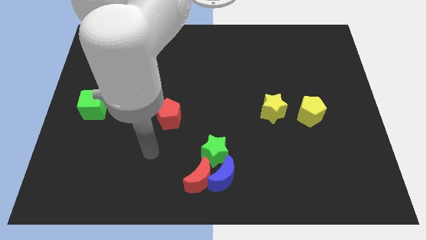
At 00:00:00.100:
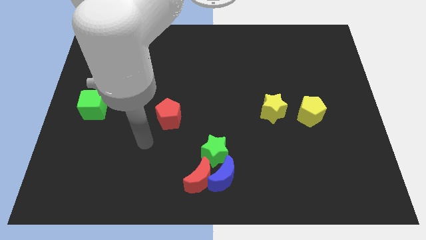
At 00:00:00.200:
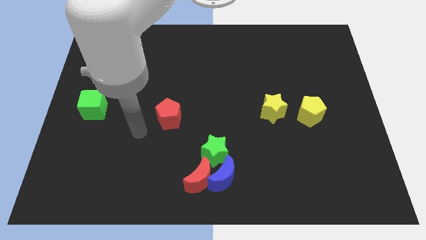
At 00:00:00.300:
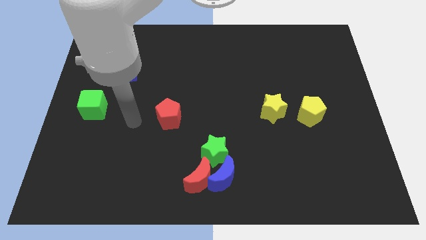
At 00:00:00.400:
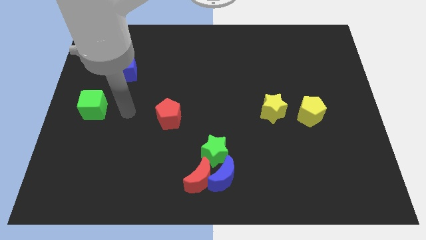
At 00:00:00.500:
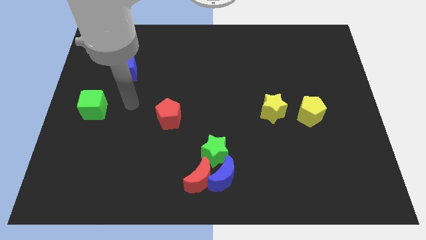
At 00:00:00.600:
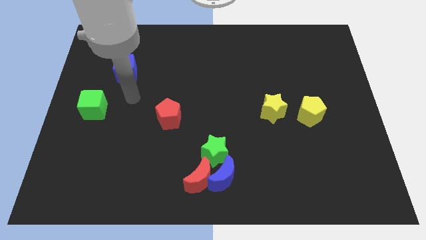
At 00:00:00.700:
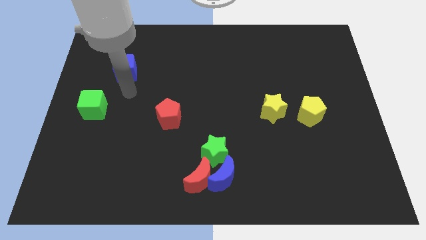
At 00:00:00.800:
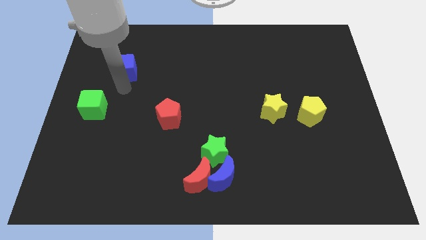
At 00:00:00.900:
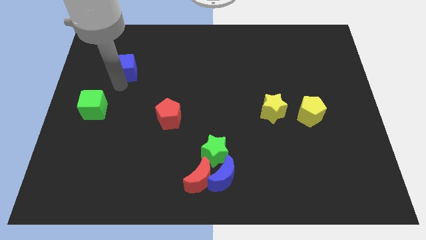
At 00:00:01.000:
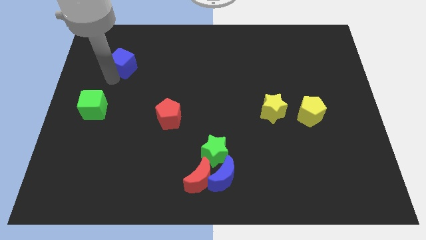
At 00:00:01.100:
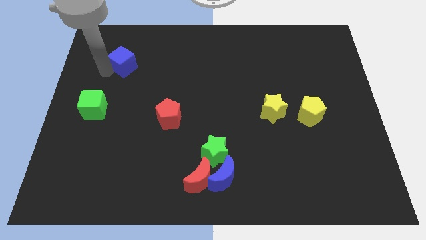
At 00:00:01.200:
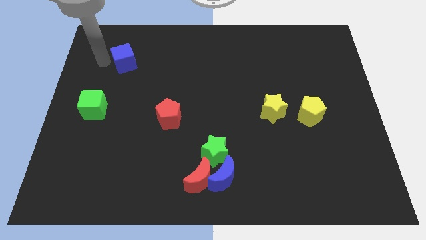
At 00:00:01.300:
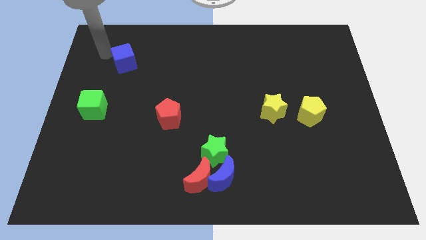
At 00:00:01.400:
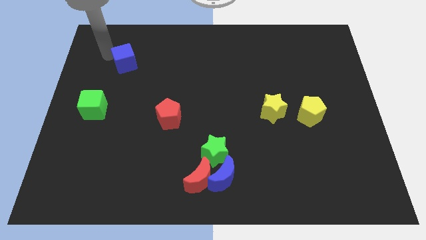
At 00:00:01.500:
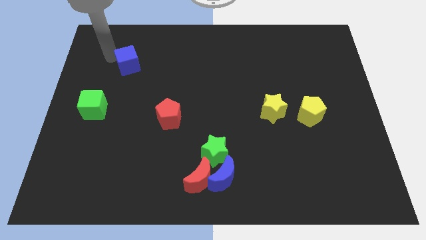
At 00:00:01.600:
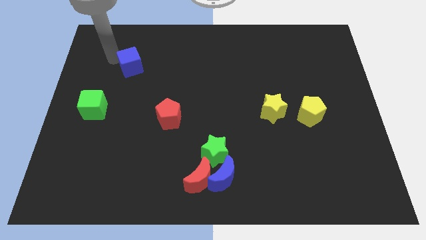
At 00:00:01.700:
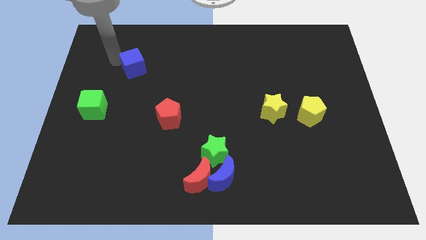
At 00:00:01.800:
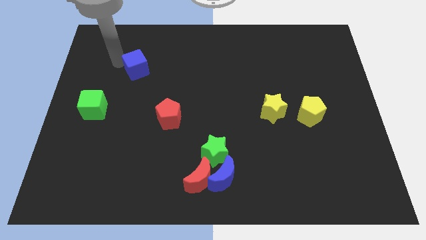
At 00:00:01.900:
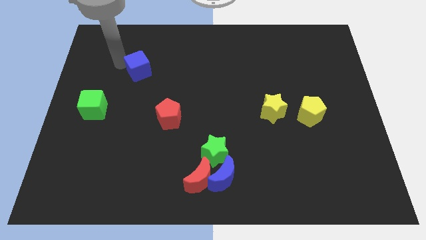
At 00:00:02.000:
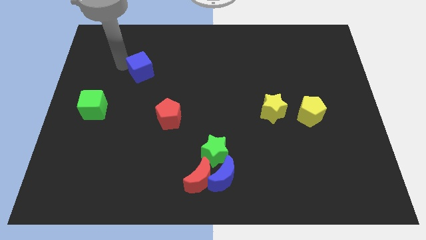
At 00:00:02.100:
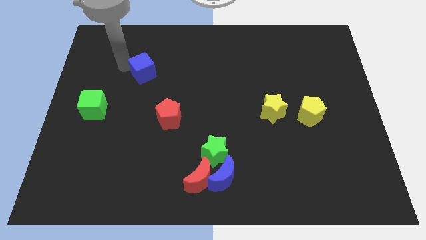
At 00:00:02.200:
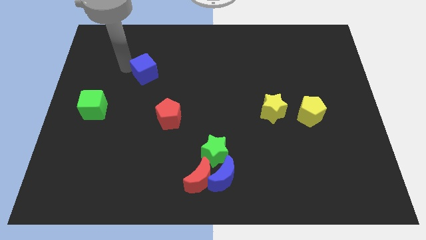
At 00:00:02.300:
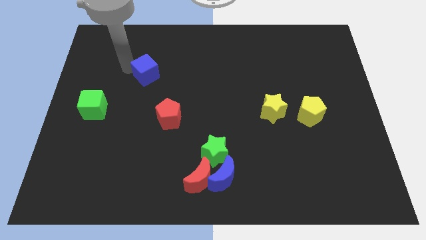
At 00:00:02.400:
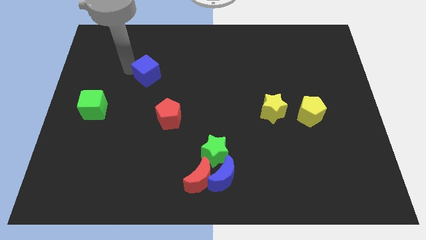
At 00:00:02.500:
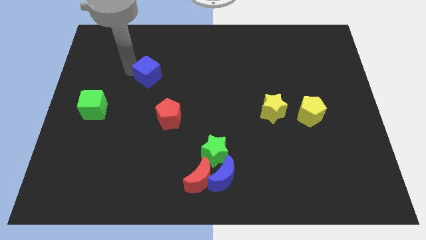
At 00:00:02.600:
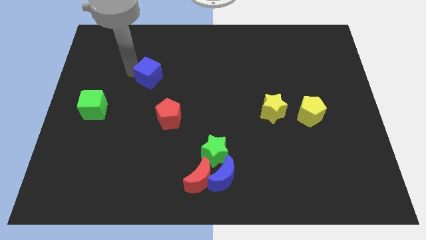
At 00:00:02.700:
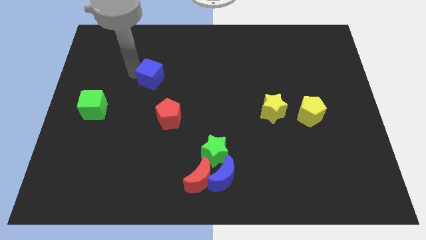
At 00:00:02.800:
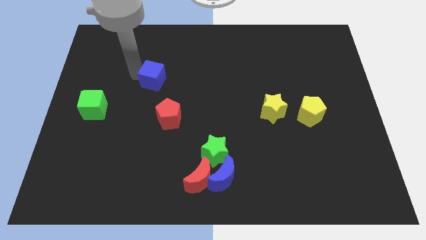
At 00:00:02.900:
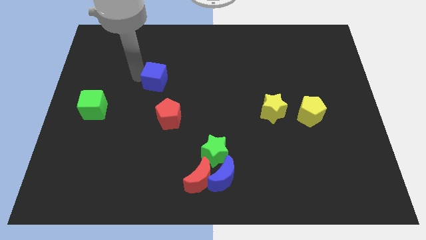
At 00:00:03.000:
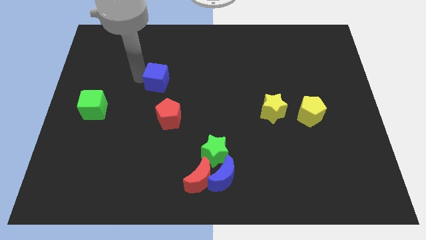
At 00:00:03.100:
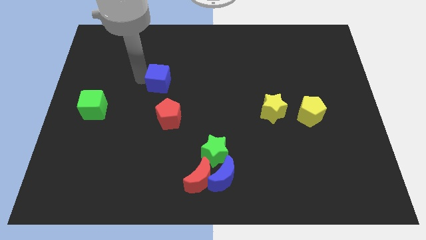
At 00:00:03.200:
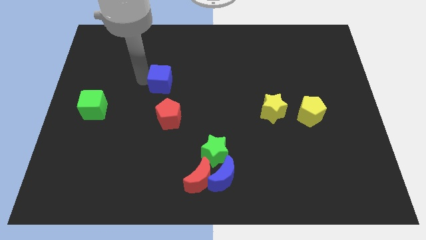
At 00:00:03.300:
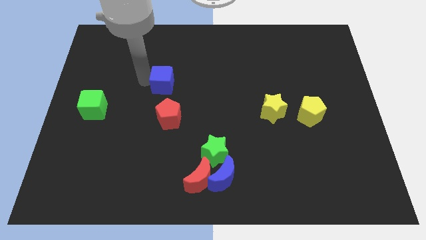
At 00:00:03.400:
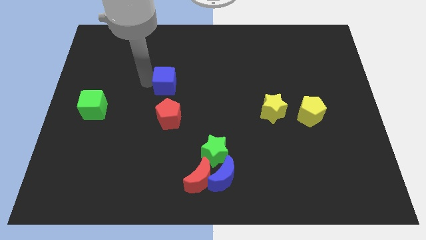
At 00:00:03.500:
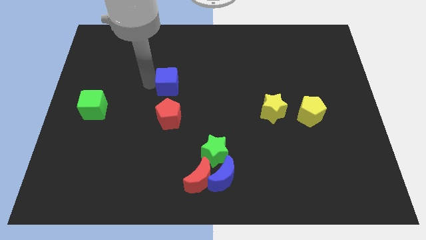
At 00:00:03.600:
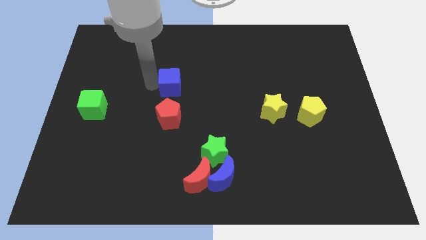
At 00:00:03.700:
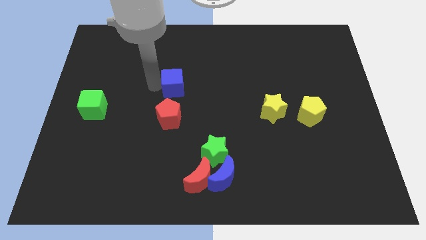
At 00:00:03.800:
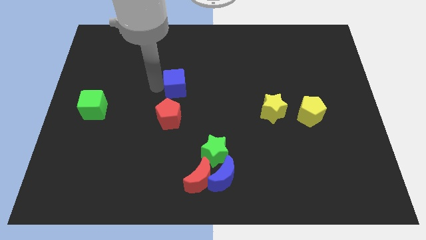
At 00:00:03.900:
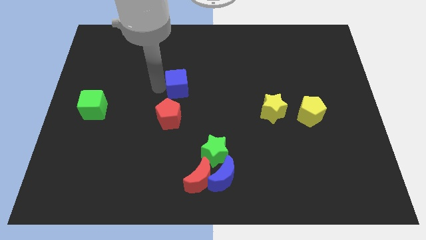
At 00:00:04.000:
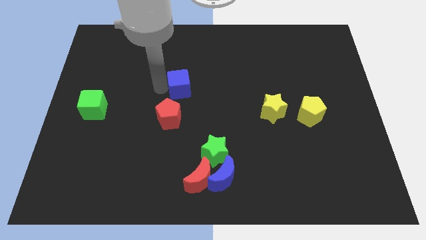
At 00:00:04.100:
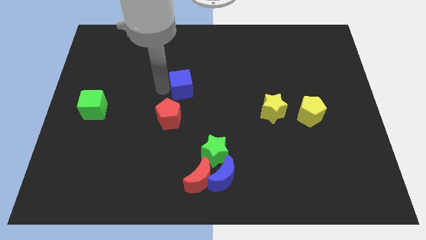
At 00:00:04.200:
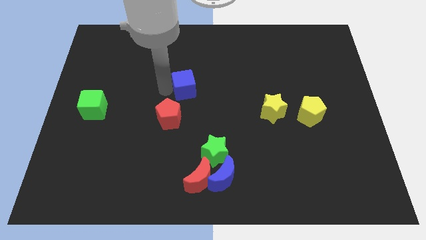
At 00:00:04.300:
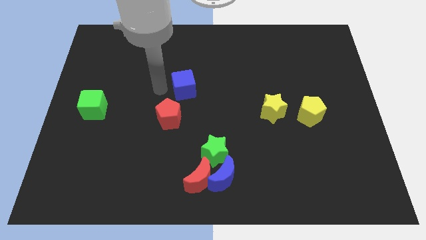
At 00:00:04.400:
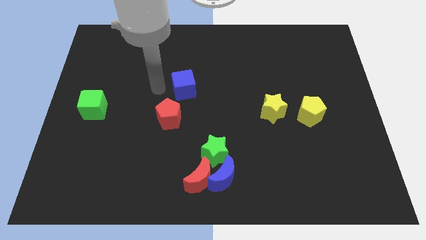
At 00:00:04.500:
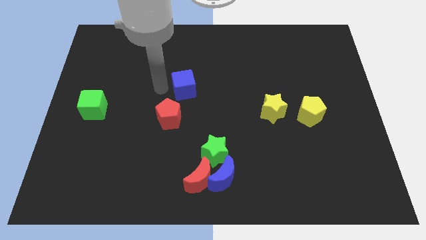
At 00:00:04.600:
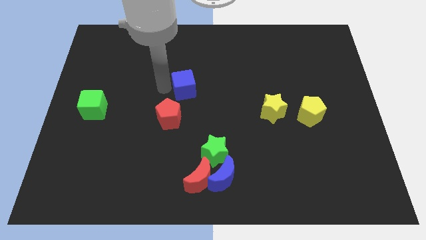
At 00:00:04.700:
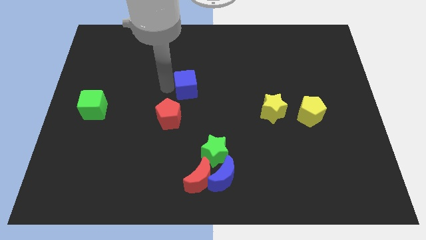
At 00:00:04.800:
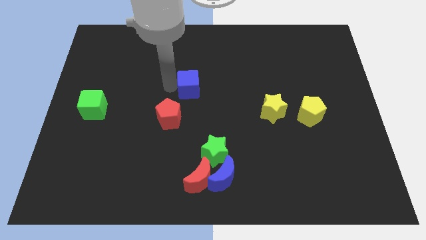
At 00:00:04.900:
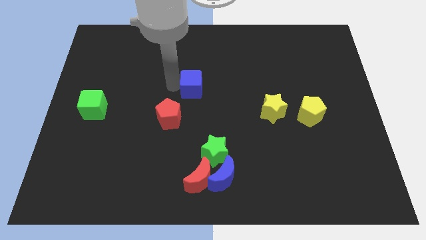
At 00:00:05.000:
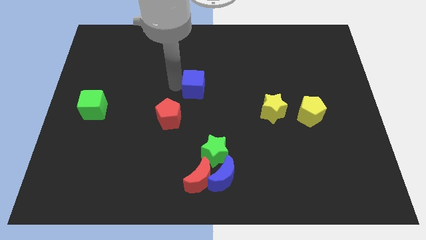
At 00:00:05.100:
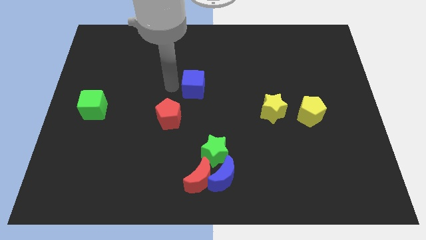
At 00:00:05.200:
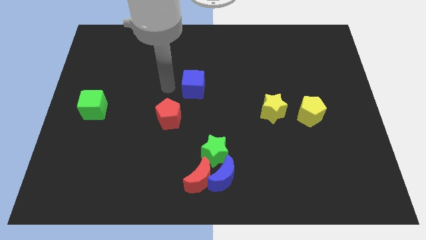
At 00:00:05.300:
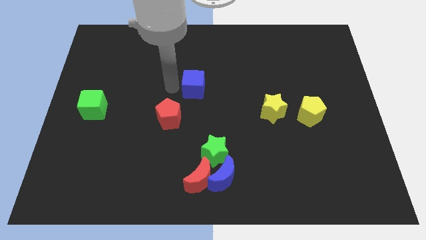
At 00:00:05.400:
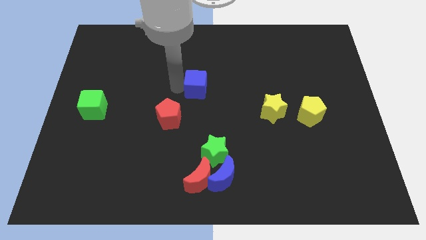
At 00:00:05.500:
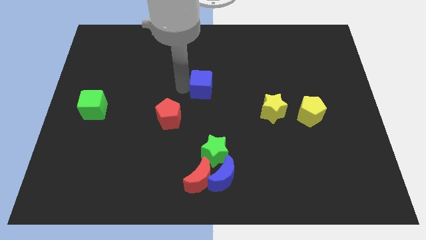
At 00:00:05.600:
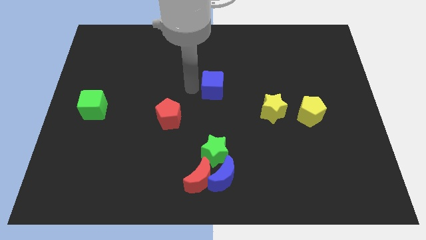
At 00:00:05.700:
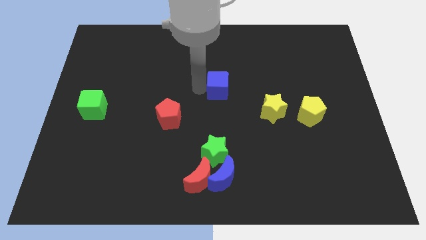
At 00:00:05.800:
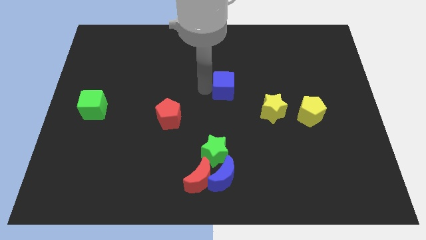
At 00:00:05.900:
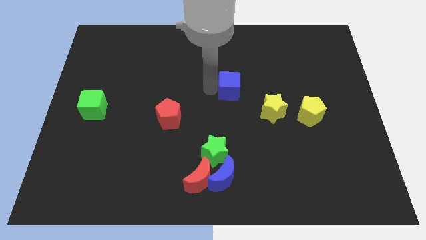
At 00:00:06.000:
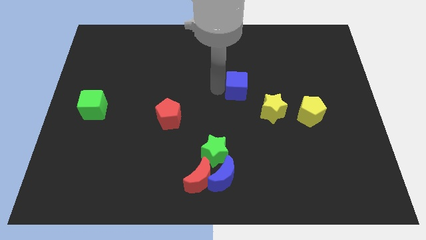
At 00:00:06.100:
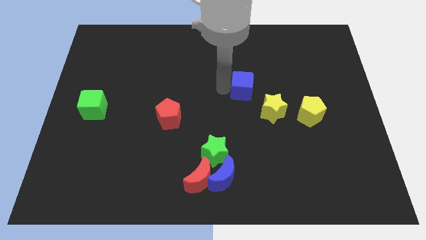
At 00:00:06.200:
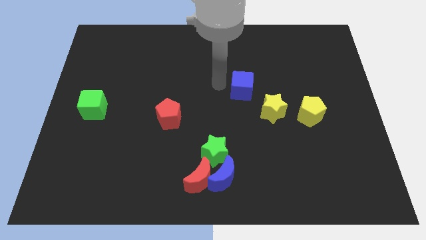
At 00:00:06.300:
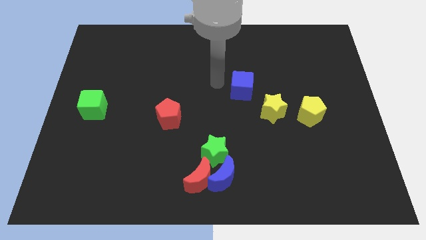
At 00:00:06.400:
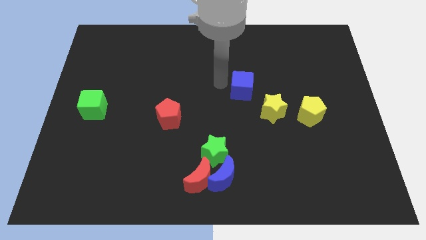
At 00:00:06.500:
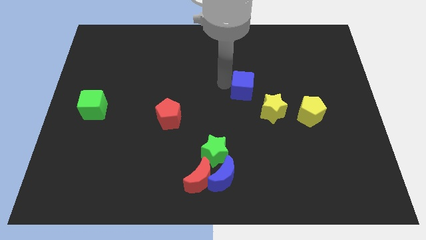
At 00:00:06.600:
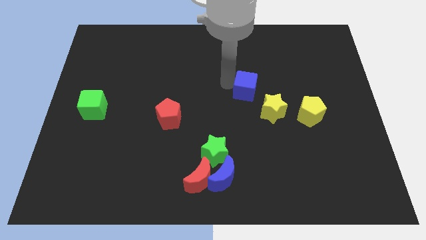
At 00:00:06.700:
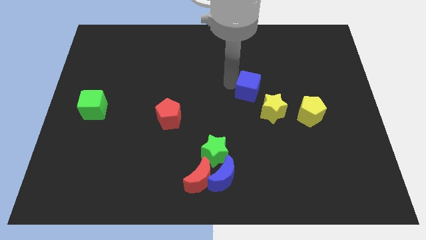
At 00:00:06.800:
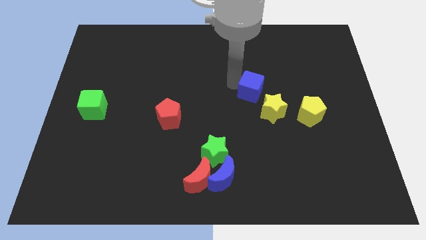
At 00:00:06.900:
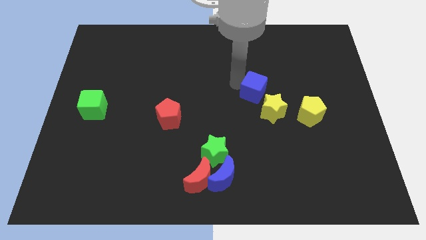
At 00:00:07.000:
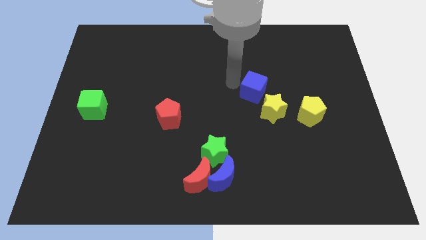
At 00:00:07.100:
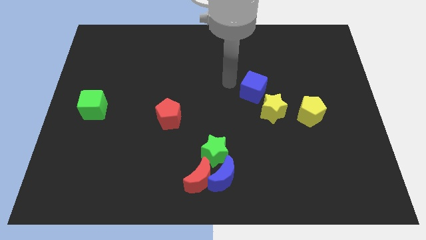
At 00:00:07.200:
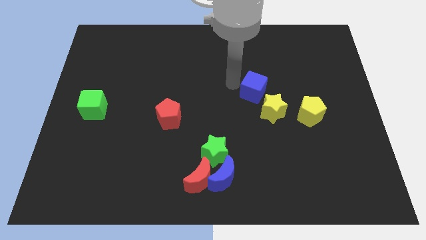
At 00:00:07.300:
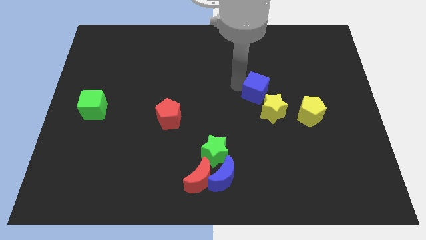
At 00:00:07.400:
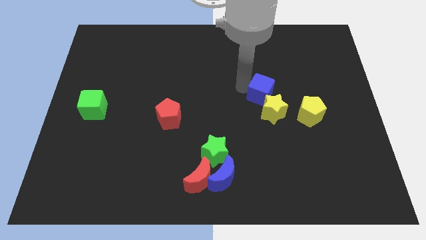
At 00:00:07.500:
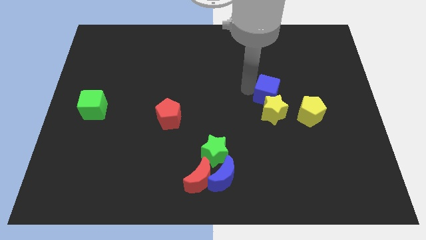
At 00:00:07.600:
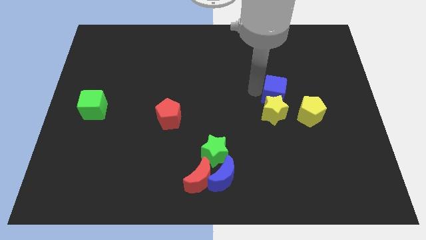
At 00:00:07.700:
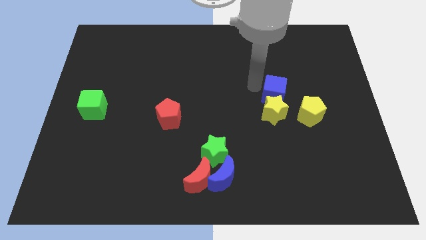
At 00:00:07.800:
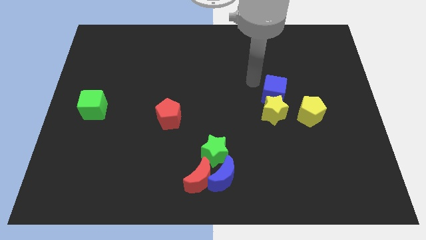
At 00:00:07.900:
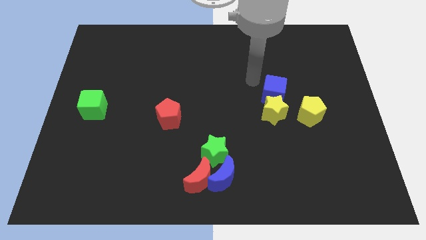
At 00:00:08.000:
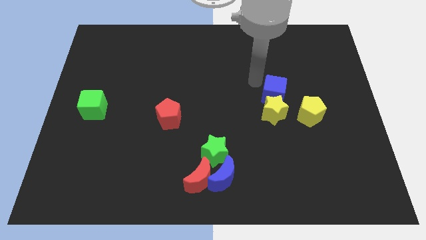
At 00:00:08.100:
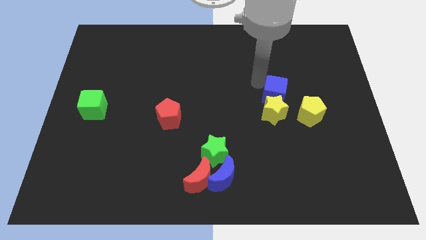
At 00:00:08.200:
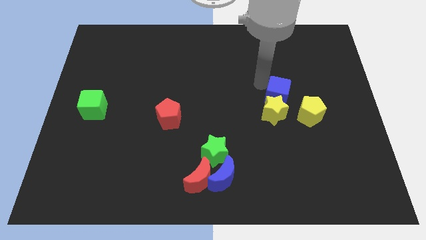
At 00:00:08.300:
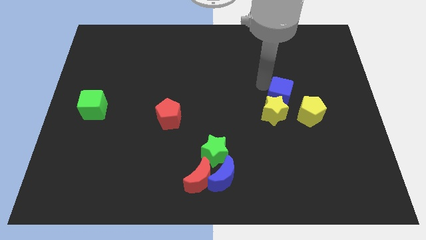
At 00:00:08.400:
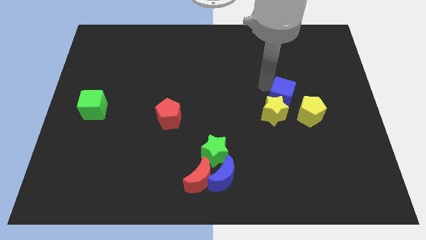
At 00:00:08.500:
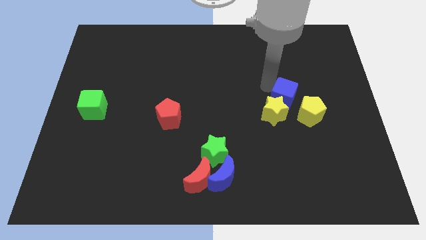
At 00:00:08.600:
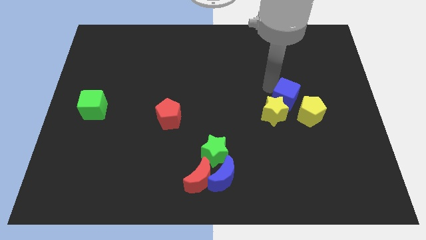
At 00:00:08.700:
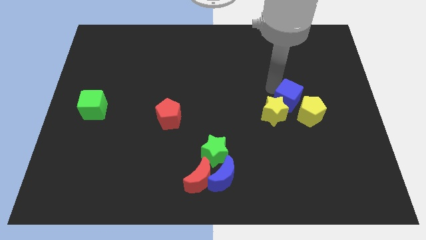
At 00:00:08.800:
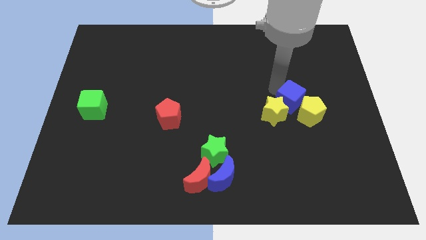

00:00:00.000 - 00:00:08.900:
move the blue cube next to the yellow pentagon
